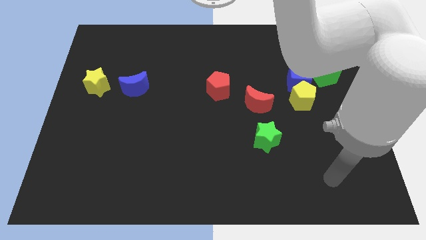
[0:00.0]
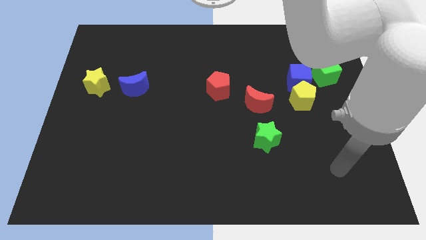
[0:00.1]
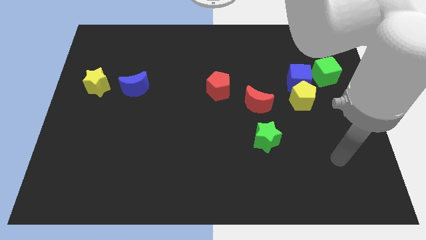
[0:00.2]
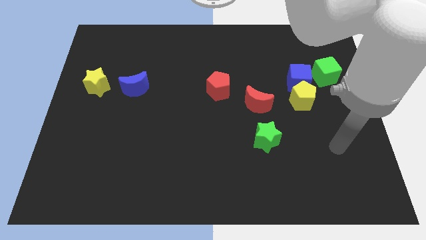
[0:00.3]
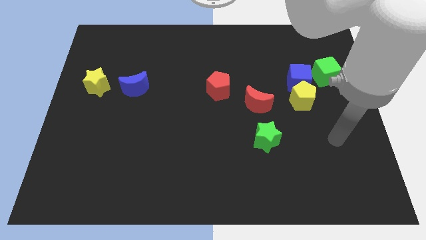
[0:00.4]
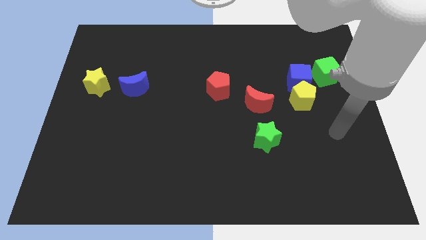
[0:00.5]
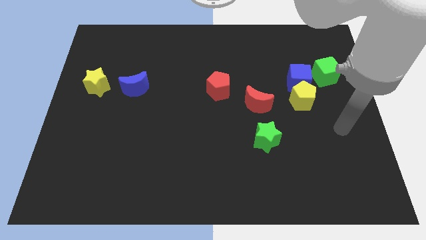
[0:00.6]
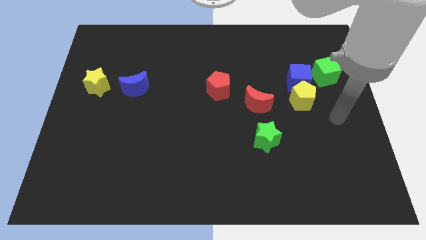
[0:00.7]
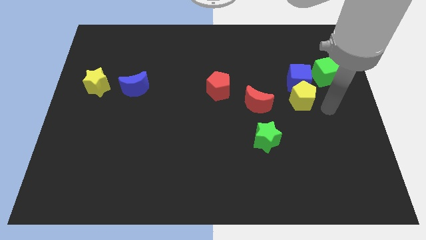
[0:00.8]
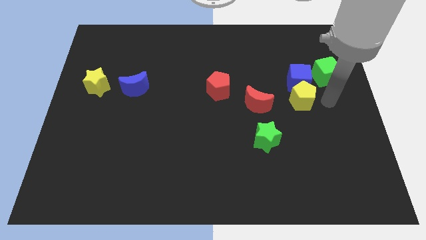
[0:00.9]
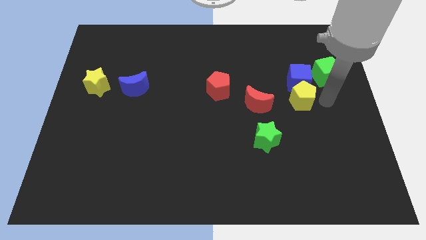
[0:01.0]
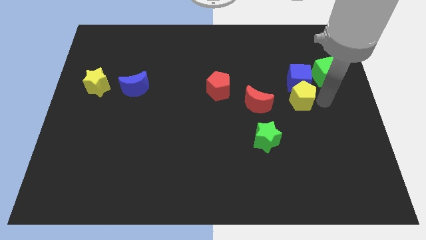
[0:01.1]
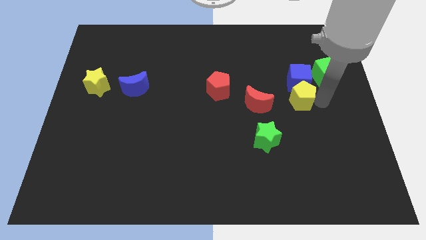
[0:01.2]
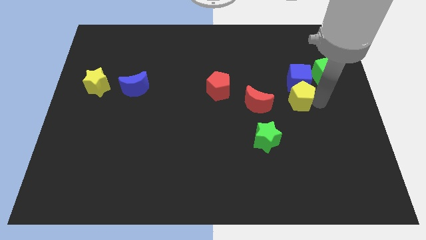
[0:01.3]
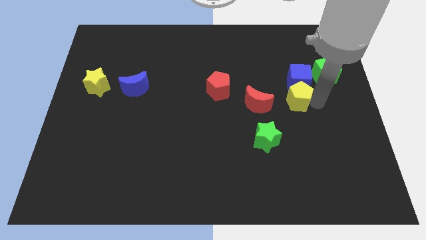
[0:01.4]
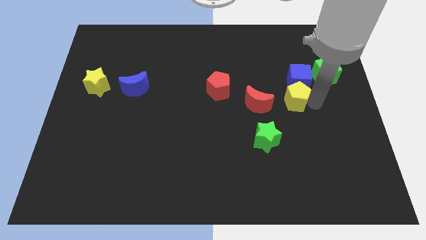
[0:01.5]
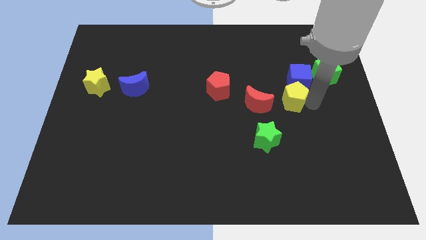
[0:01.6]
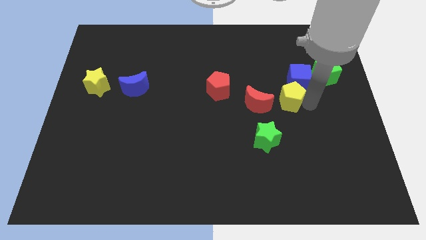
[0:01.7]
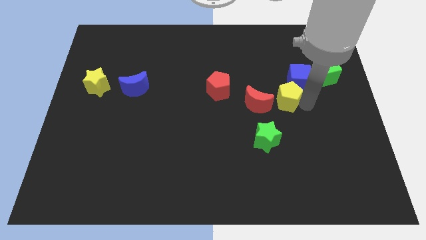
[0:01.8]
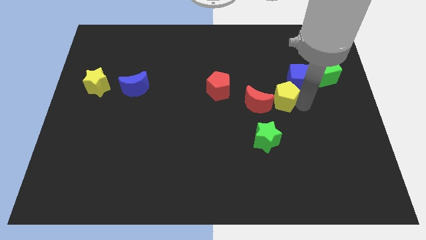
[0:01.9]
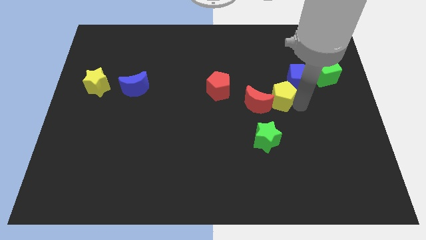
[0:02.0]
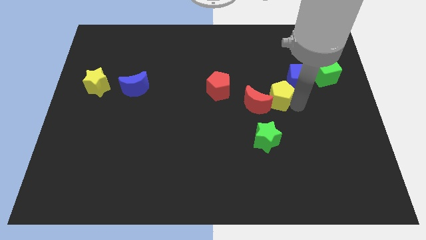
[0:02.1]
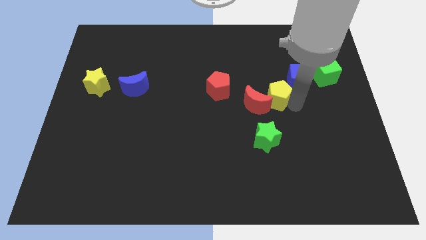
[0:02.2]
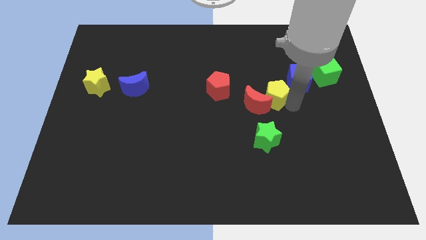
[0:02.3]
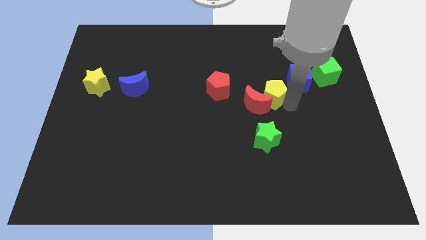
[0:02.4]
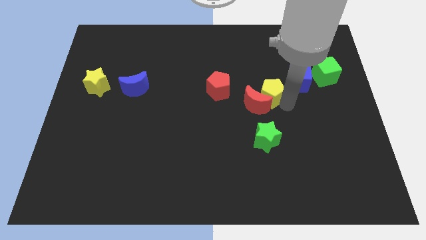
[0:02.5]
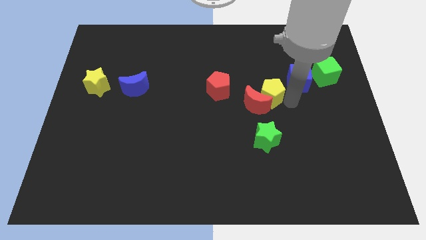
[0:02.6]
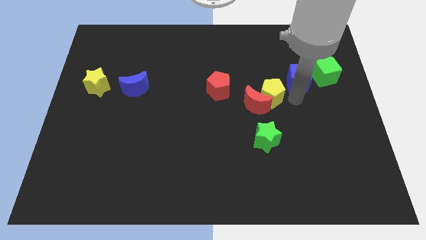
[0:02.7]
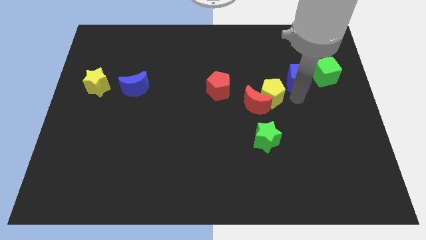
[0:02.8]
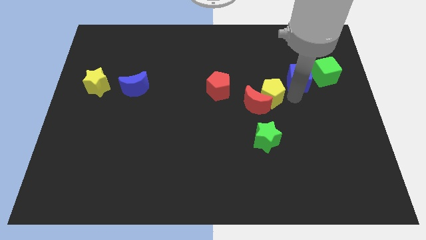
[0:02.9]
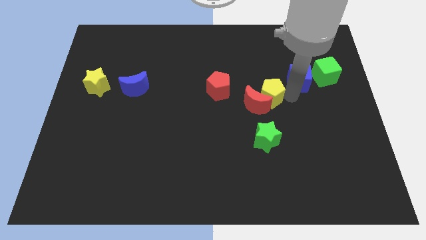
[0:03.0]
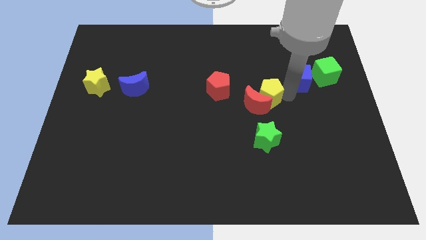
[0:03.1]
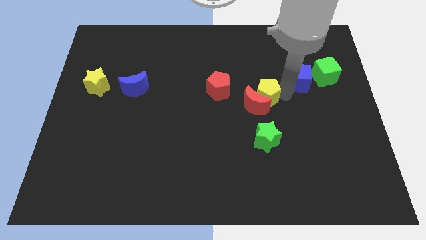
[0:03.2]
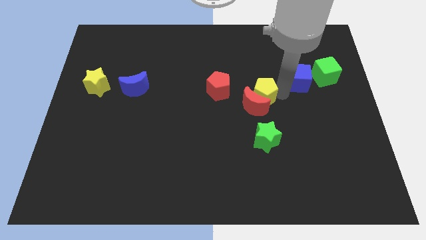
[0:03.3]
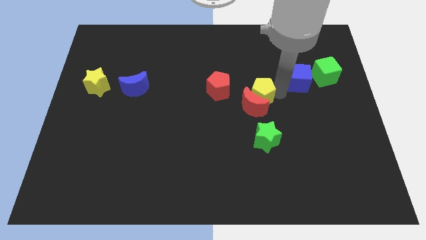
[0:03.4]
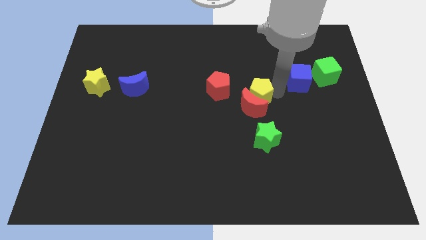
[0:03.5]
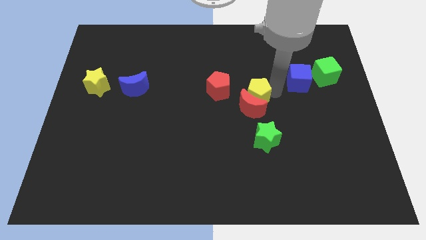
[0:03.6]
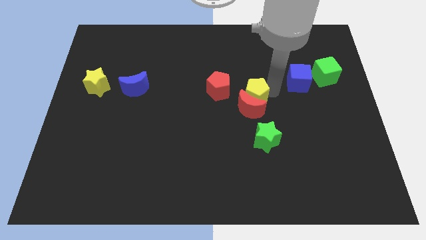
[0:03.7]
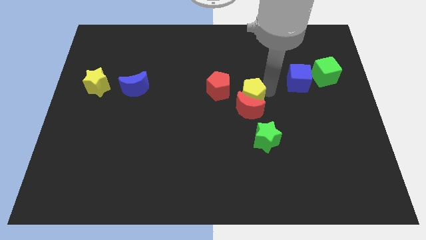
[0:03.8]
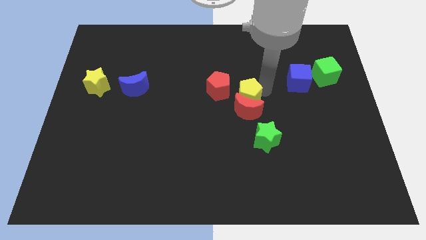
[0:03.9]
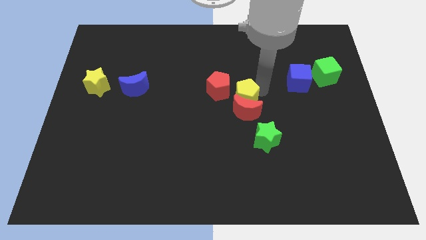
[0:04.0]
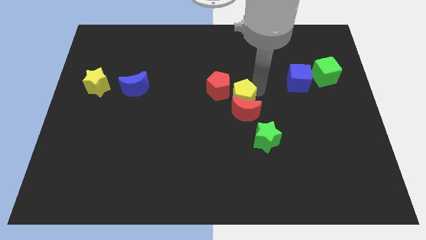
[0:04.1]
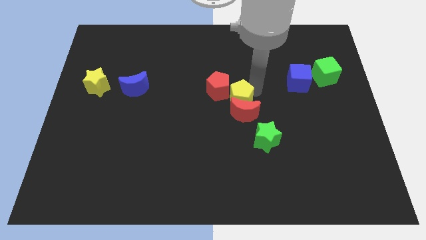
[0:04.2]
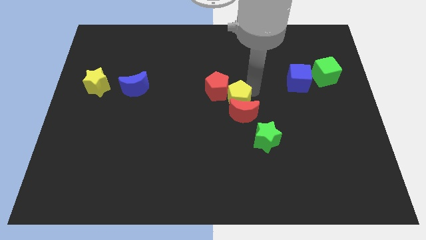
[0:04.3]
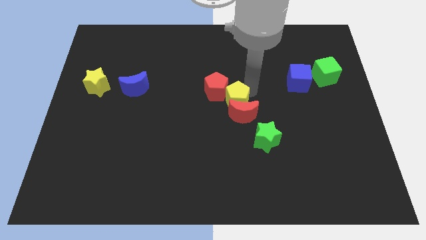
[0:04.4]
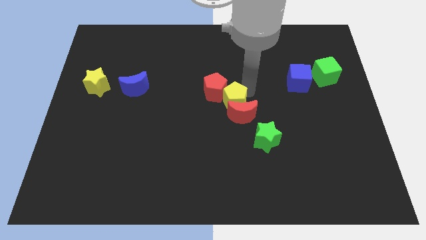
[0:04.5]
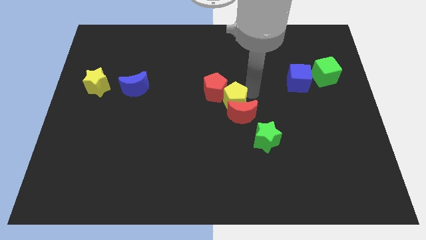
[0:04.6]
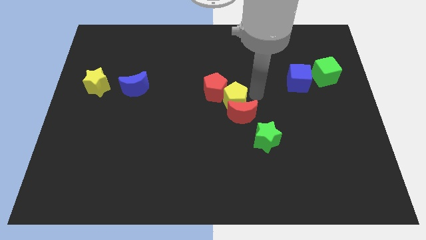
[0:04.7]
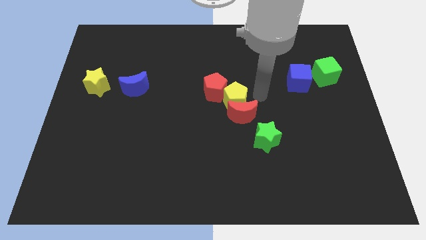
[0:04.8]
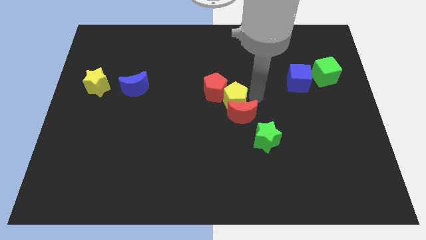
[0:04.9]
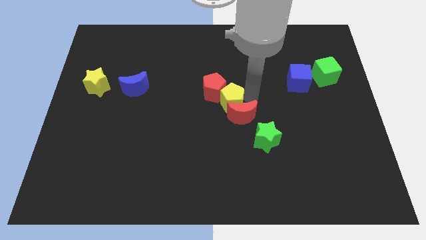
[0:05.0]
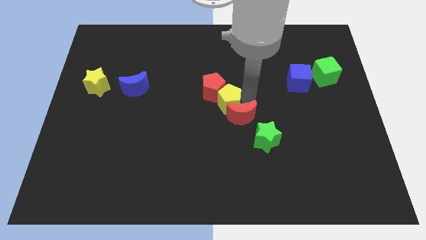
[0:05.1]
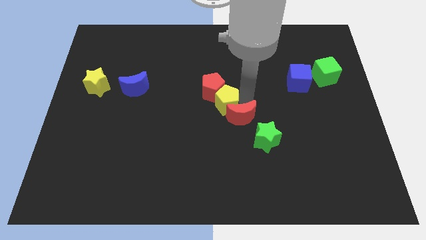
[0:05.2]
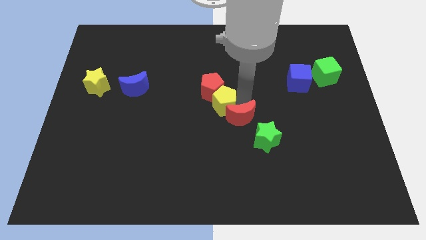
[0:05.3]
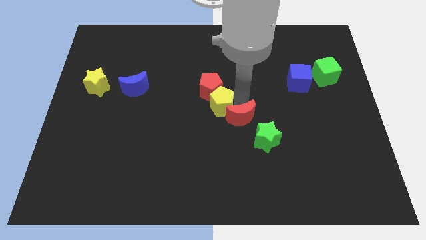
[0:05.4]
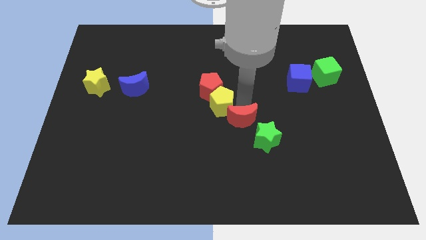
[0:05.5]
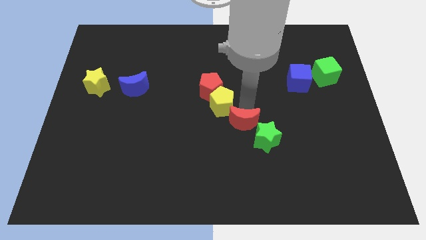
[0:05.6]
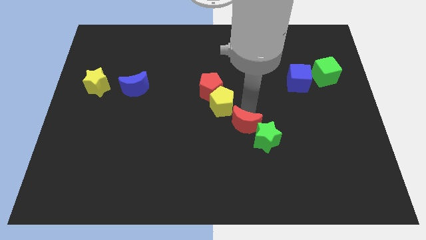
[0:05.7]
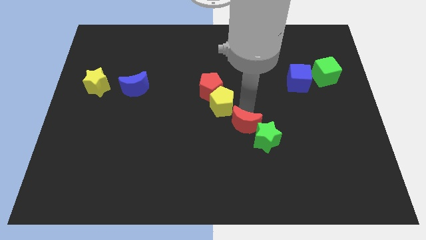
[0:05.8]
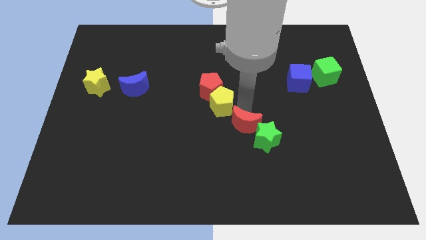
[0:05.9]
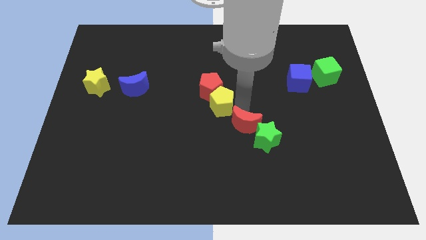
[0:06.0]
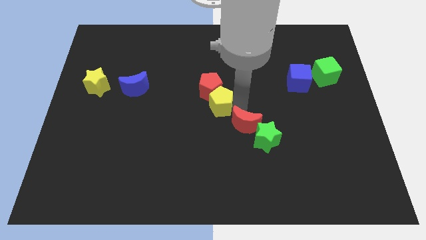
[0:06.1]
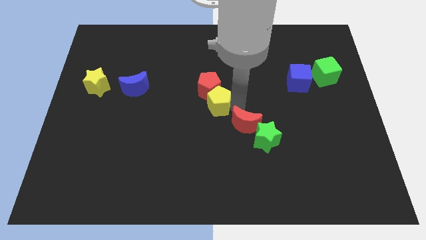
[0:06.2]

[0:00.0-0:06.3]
move the yellow pentagon left

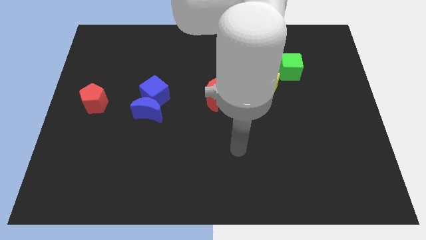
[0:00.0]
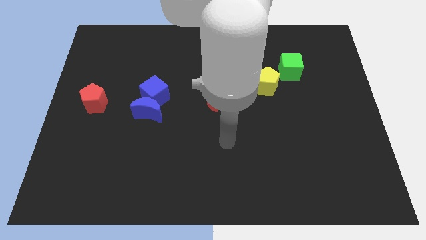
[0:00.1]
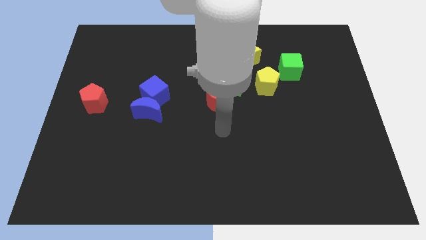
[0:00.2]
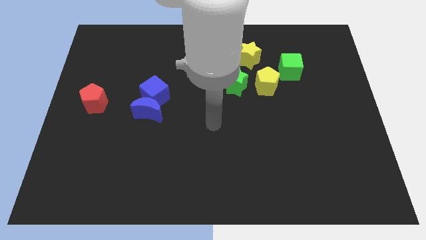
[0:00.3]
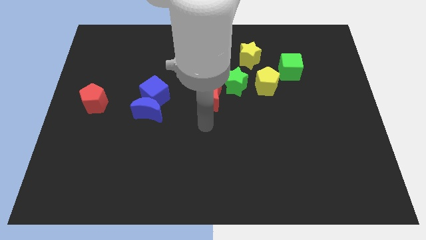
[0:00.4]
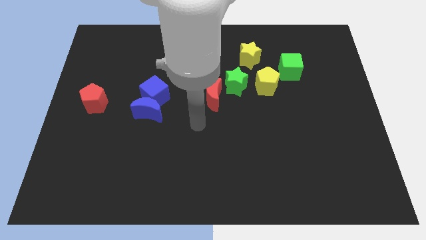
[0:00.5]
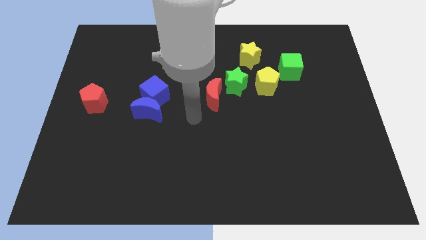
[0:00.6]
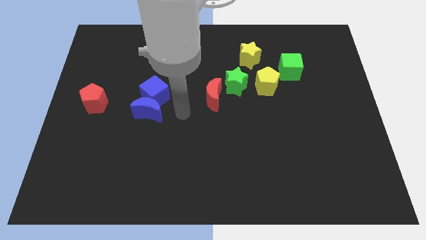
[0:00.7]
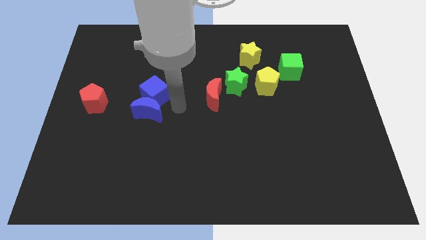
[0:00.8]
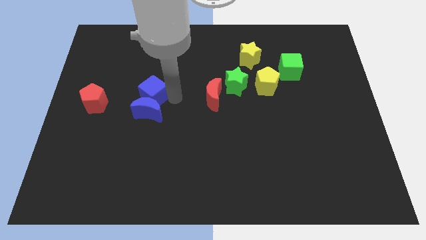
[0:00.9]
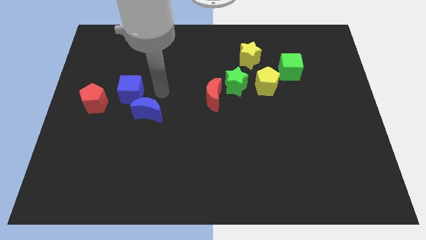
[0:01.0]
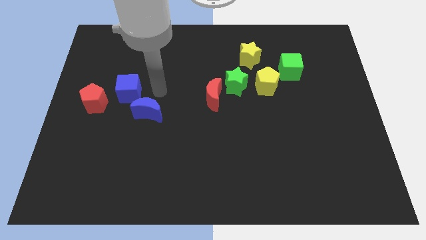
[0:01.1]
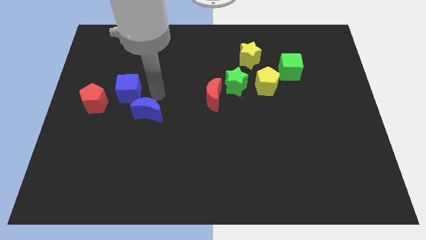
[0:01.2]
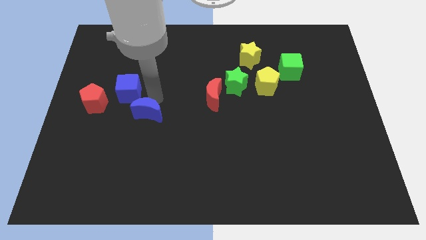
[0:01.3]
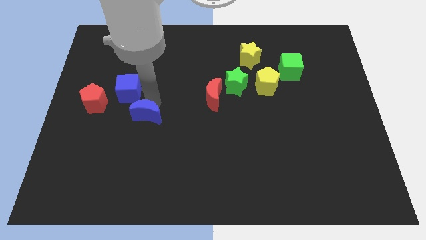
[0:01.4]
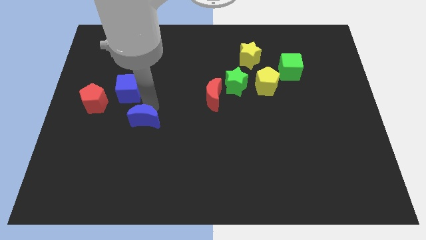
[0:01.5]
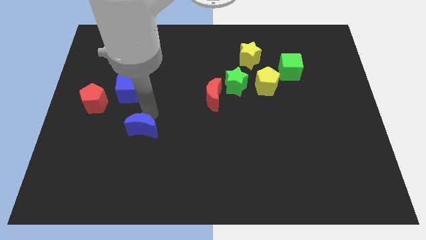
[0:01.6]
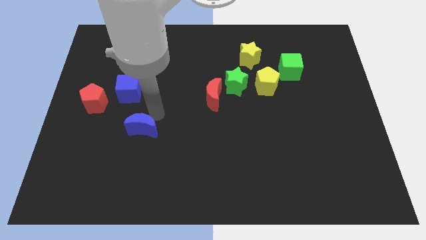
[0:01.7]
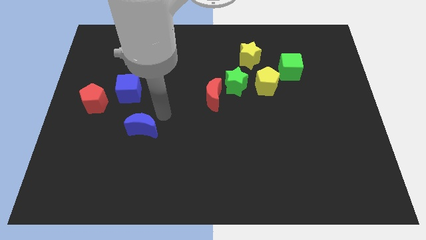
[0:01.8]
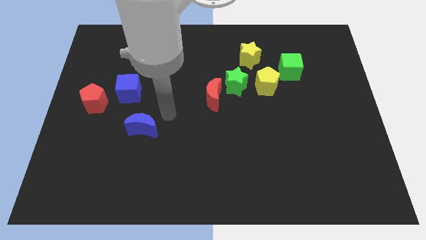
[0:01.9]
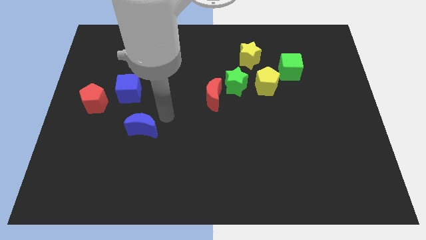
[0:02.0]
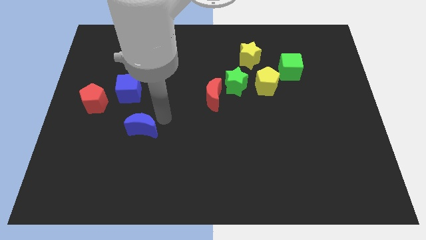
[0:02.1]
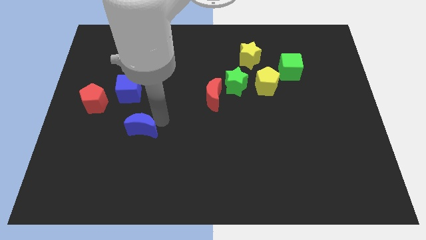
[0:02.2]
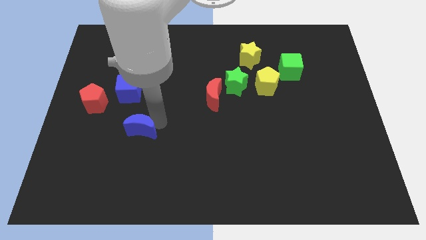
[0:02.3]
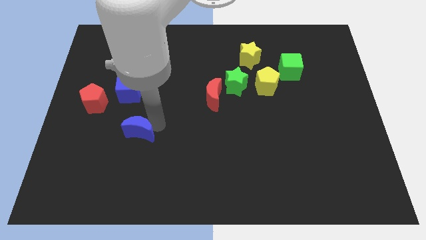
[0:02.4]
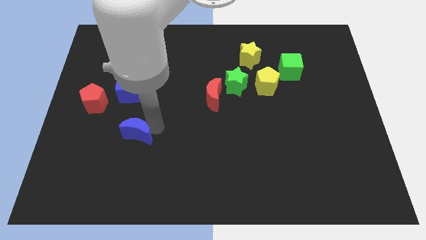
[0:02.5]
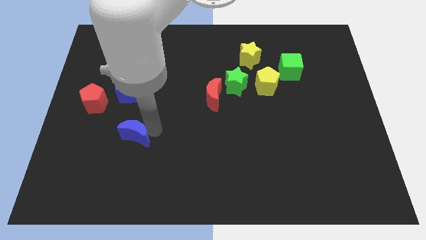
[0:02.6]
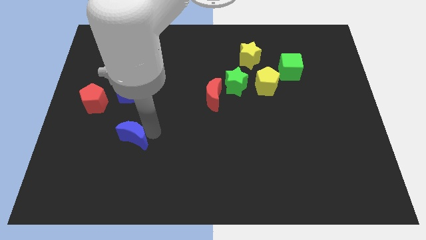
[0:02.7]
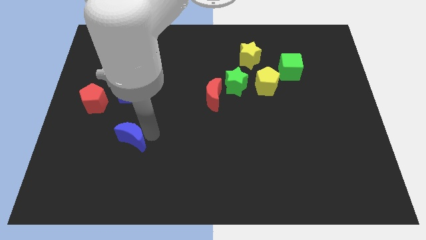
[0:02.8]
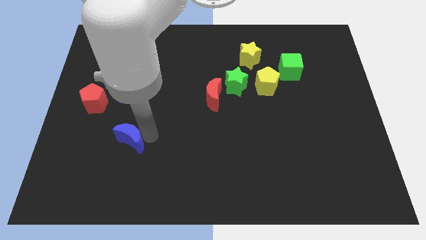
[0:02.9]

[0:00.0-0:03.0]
push the blue moon down and then left somewhat
